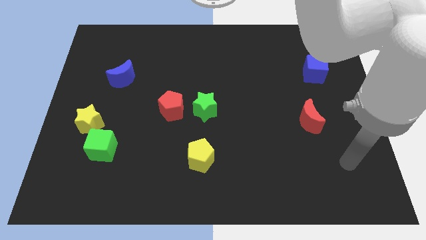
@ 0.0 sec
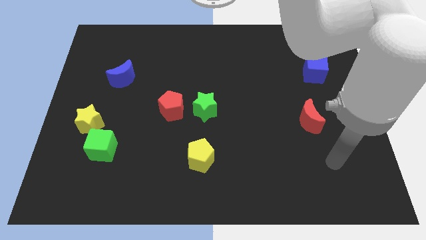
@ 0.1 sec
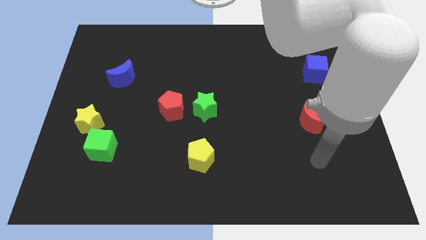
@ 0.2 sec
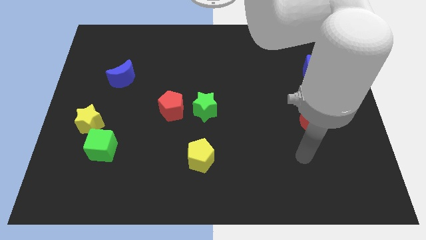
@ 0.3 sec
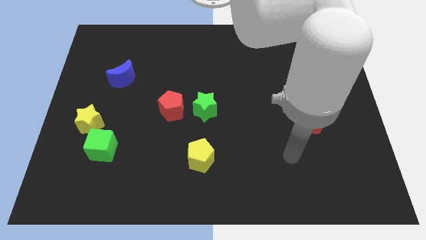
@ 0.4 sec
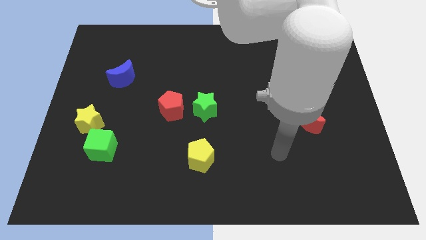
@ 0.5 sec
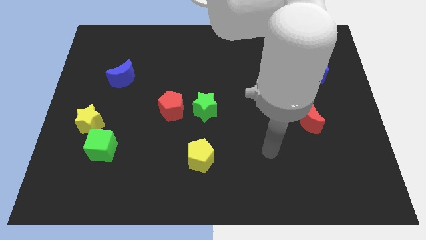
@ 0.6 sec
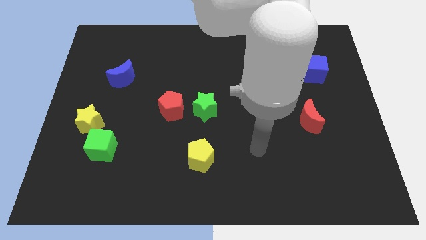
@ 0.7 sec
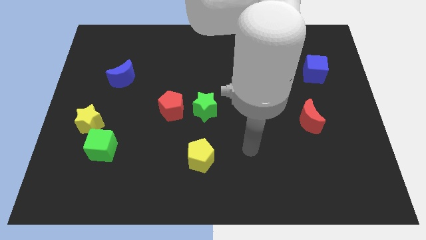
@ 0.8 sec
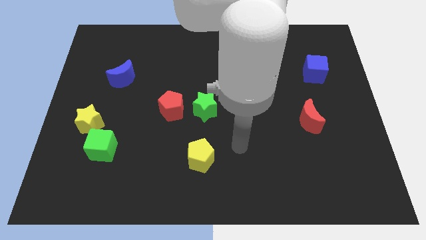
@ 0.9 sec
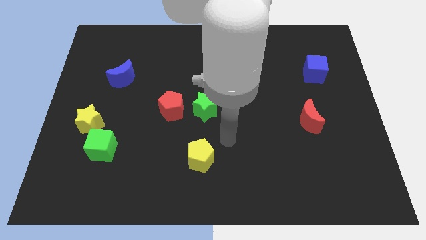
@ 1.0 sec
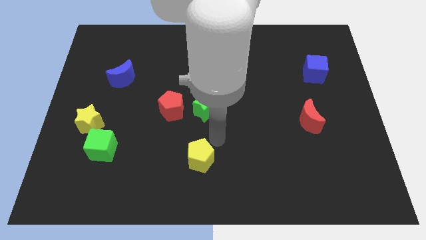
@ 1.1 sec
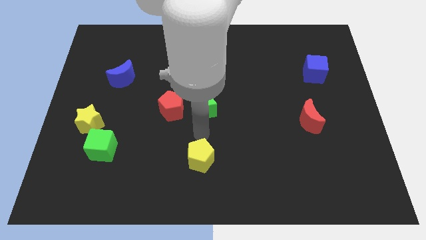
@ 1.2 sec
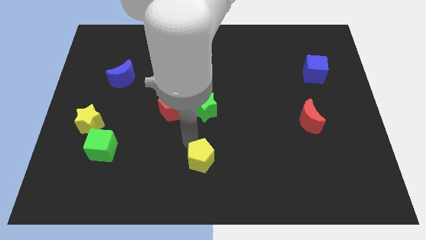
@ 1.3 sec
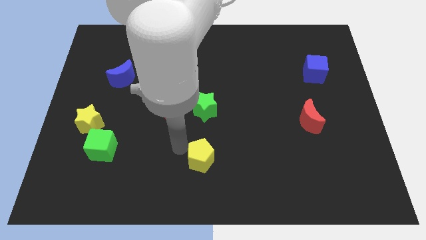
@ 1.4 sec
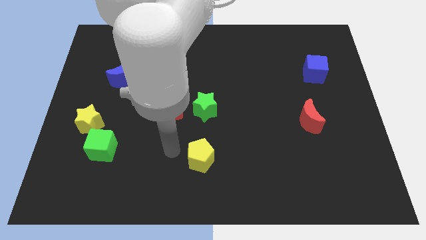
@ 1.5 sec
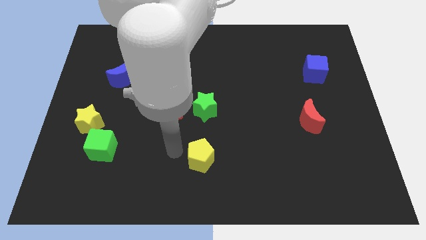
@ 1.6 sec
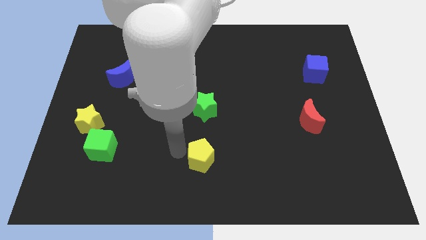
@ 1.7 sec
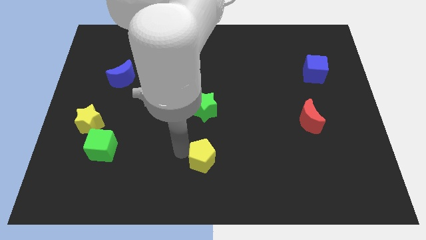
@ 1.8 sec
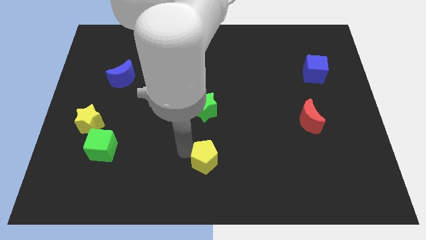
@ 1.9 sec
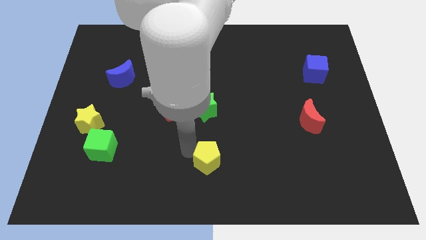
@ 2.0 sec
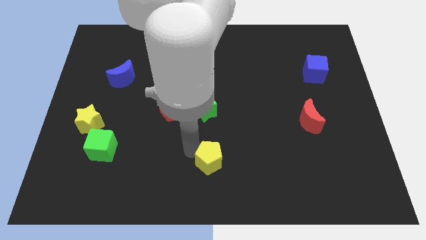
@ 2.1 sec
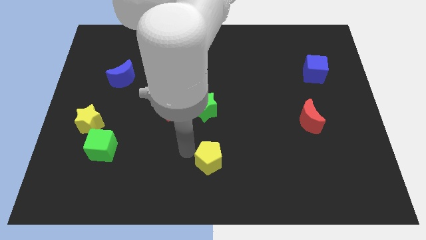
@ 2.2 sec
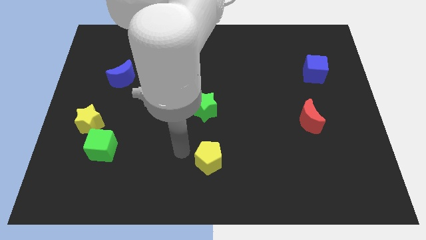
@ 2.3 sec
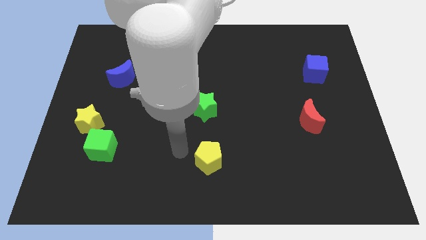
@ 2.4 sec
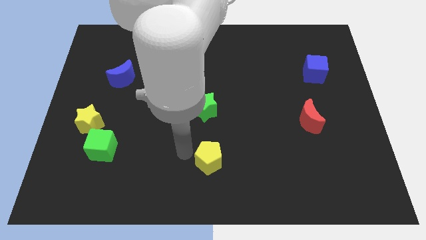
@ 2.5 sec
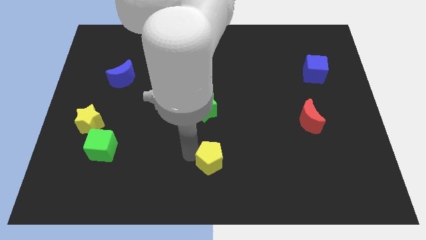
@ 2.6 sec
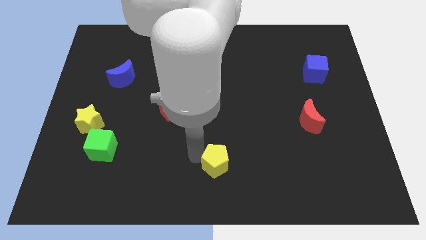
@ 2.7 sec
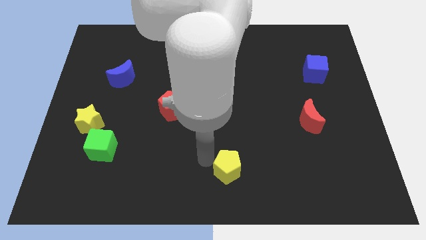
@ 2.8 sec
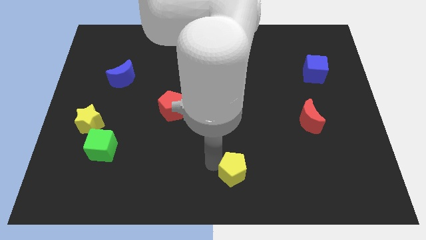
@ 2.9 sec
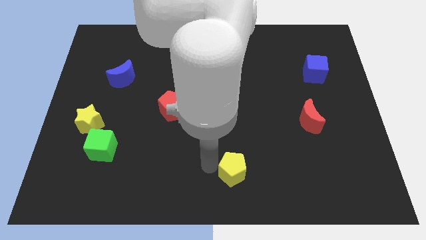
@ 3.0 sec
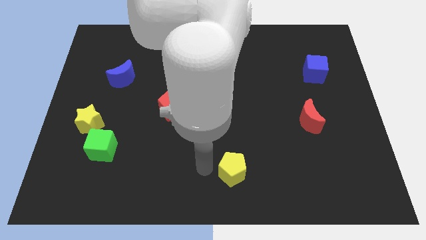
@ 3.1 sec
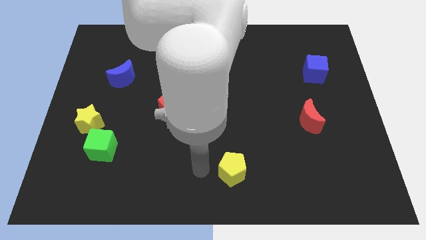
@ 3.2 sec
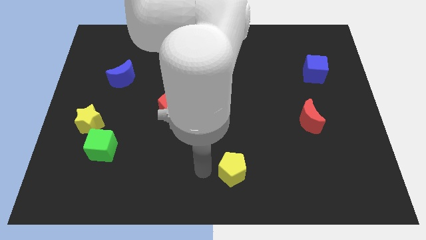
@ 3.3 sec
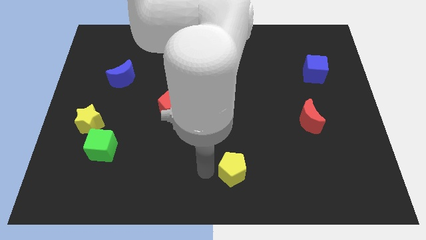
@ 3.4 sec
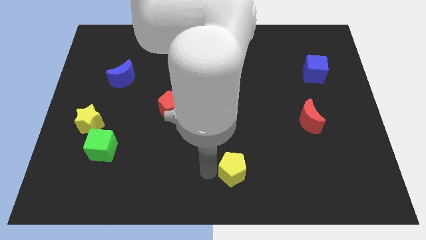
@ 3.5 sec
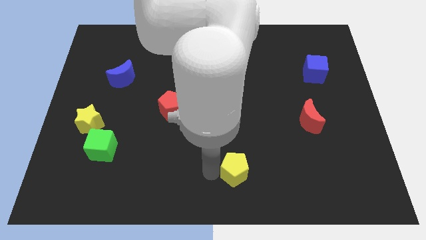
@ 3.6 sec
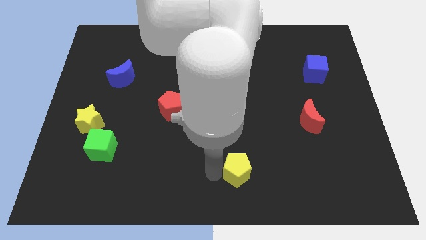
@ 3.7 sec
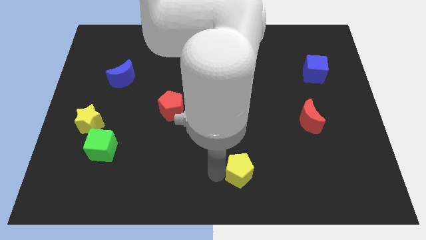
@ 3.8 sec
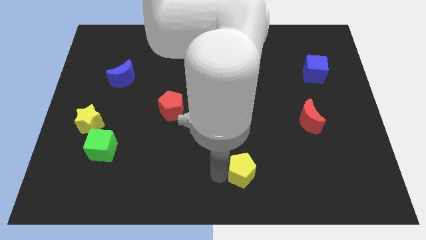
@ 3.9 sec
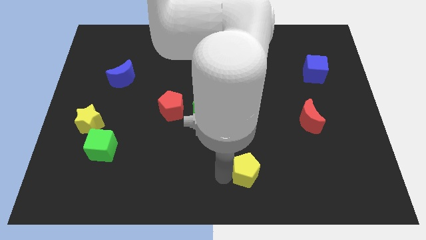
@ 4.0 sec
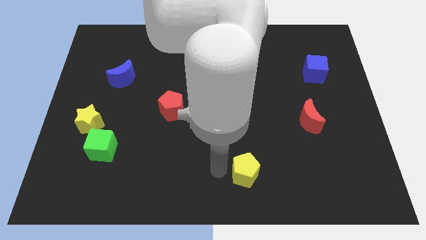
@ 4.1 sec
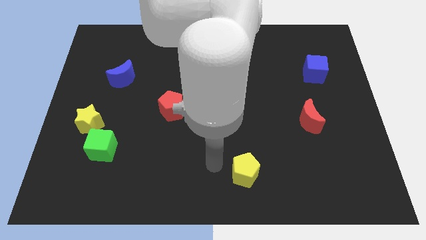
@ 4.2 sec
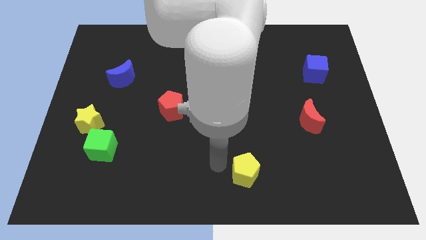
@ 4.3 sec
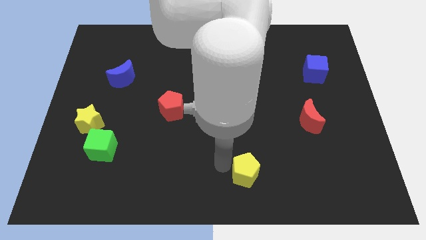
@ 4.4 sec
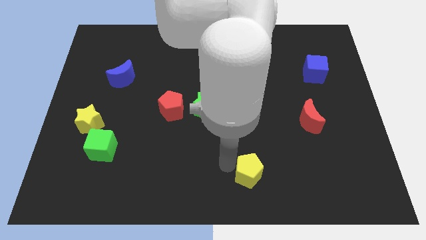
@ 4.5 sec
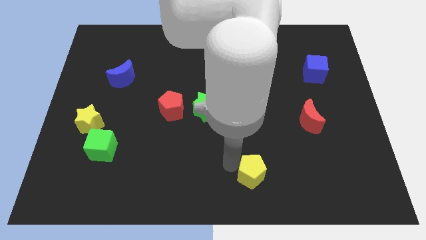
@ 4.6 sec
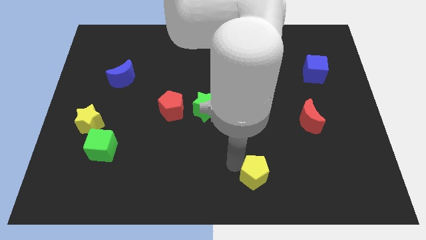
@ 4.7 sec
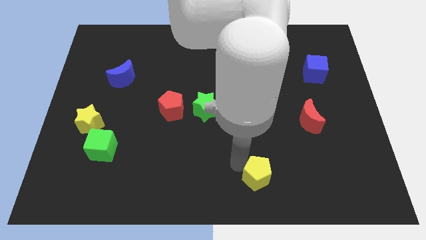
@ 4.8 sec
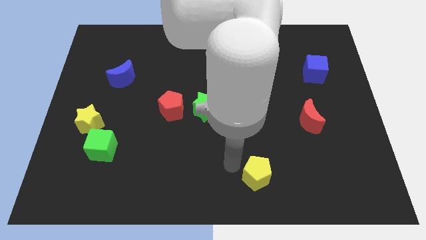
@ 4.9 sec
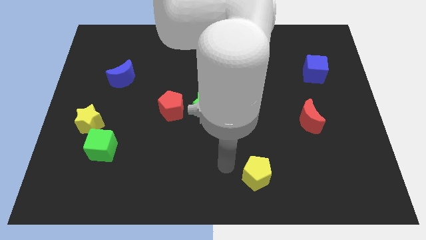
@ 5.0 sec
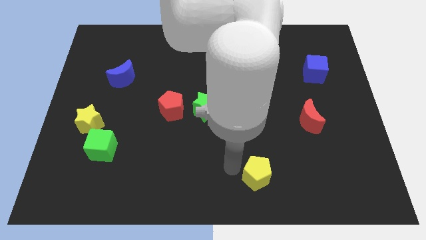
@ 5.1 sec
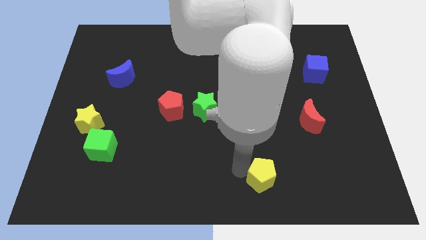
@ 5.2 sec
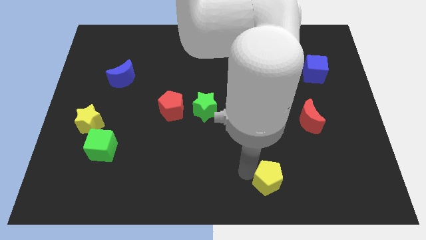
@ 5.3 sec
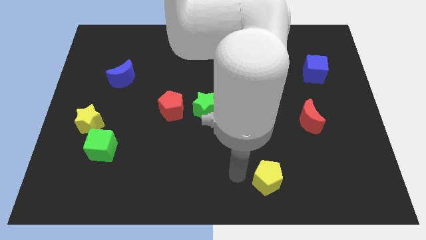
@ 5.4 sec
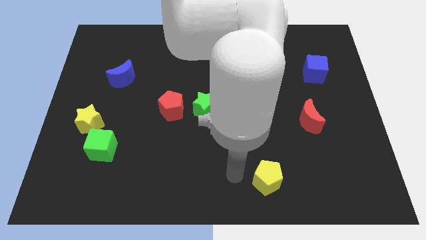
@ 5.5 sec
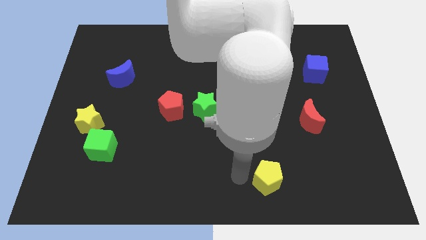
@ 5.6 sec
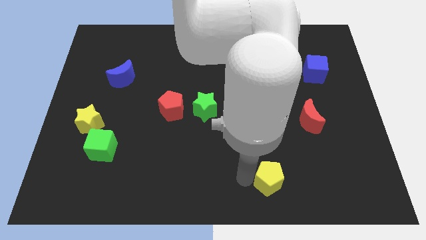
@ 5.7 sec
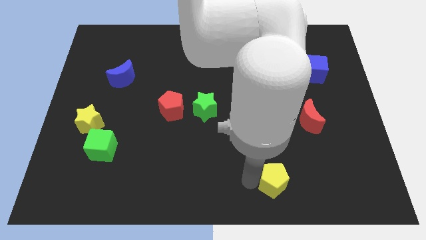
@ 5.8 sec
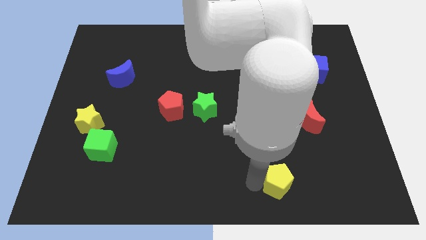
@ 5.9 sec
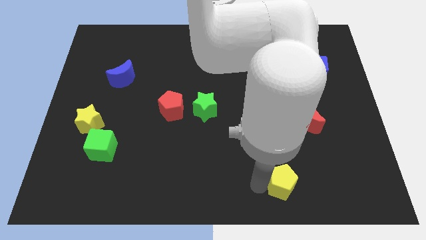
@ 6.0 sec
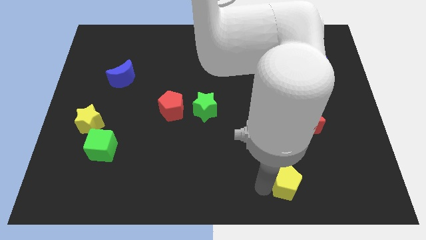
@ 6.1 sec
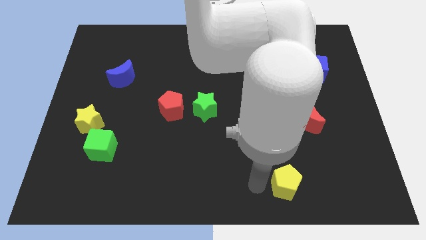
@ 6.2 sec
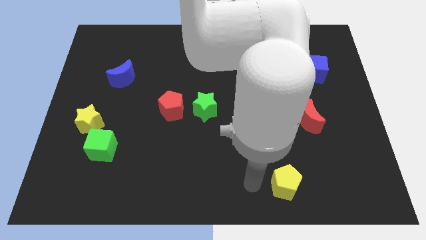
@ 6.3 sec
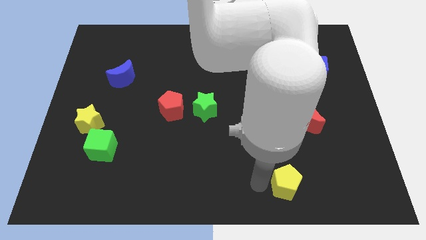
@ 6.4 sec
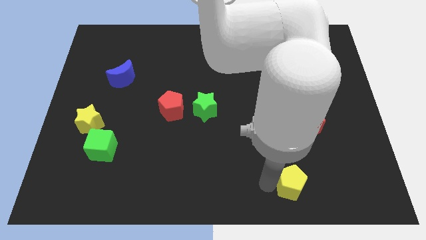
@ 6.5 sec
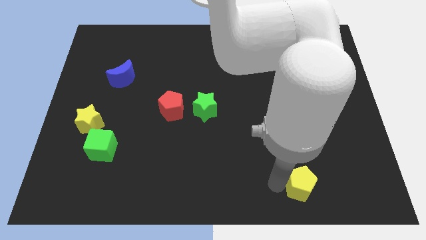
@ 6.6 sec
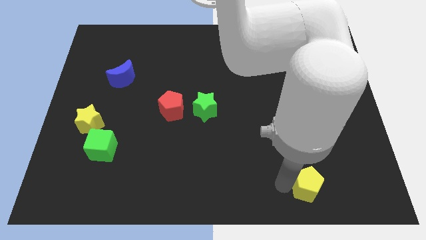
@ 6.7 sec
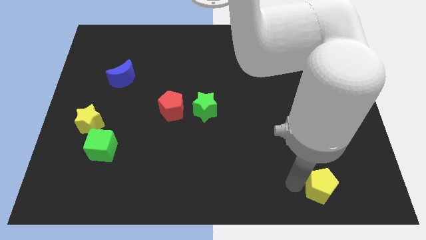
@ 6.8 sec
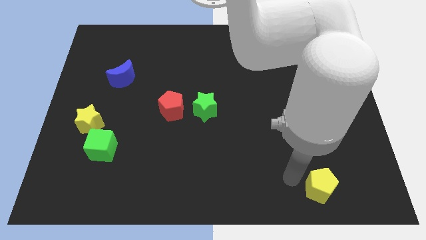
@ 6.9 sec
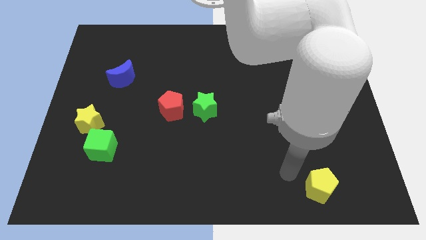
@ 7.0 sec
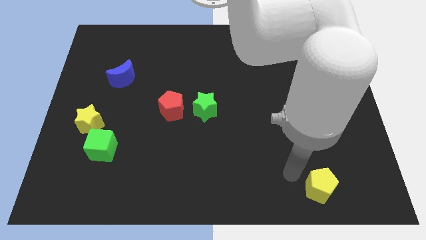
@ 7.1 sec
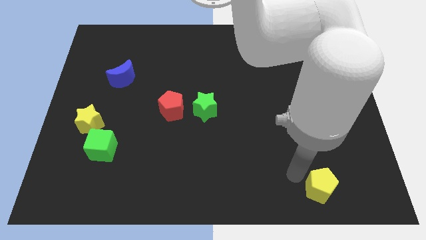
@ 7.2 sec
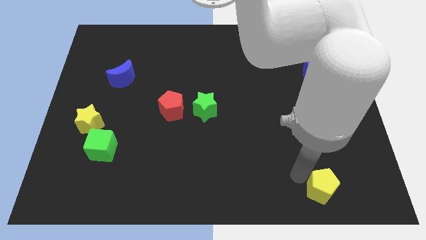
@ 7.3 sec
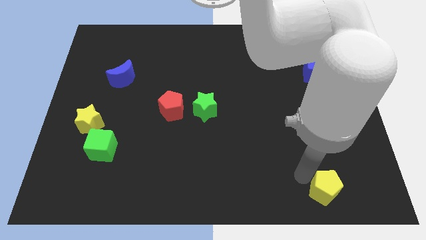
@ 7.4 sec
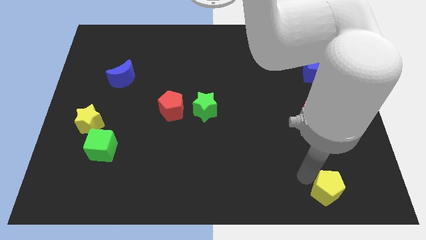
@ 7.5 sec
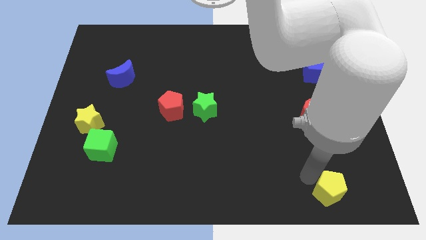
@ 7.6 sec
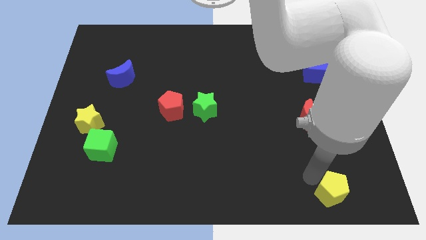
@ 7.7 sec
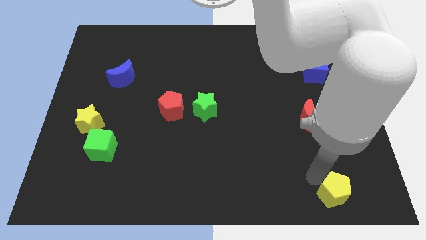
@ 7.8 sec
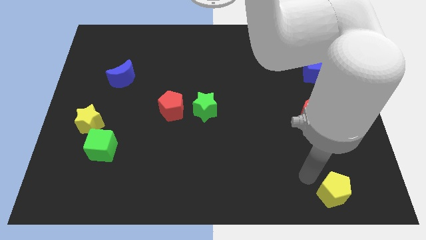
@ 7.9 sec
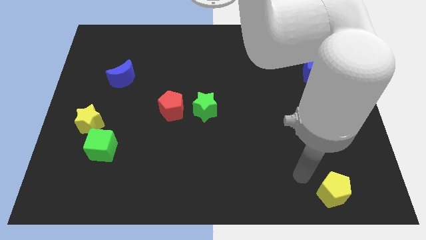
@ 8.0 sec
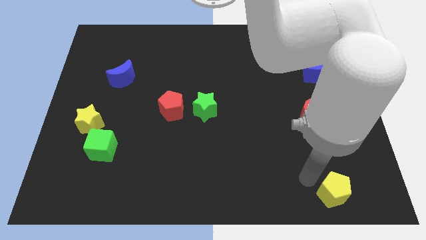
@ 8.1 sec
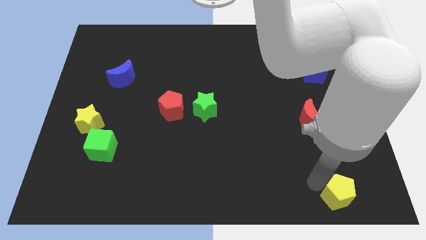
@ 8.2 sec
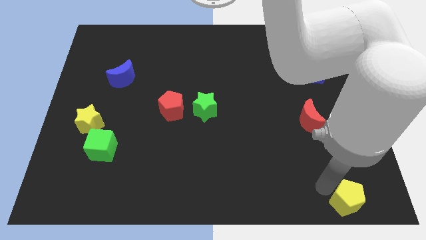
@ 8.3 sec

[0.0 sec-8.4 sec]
push the yellow pentagon to the bottom right corner
